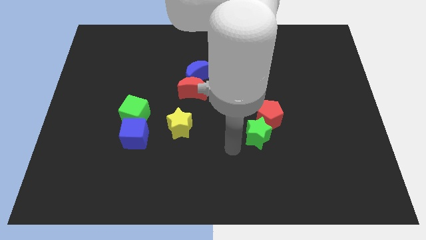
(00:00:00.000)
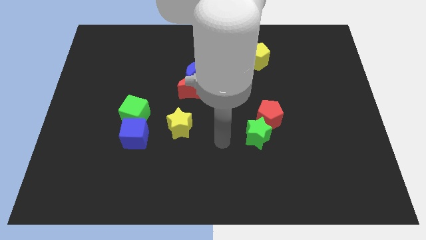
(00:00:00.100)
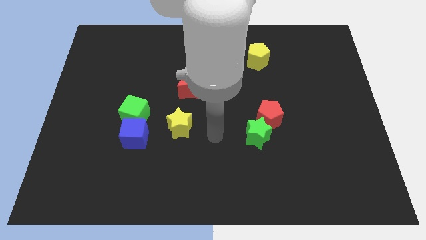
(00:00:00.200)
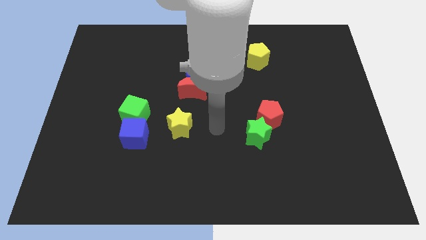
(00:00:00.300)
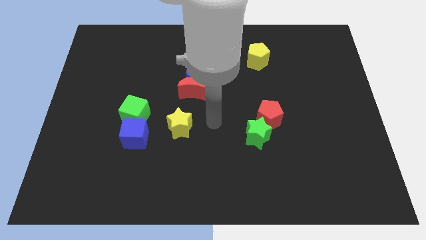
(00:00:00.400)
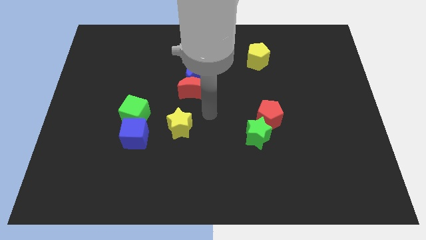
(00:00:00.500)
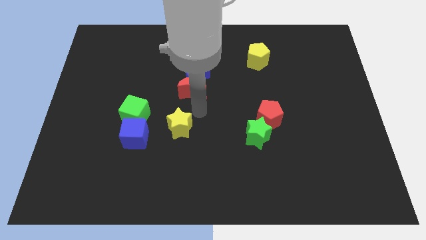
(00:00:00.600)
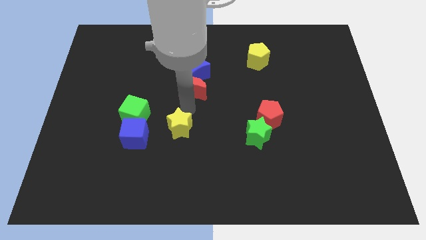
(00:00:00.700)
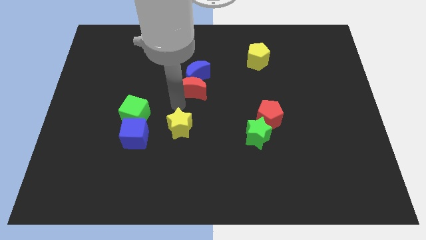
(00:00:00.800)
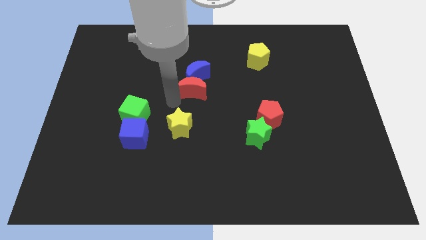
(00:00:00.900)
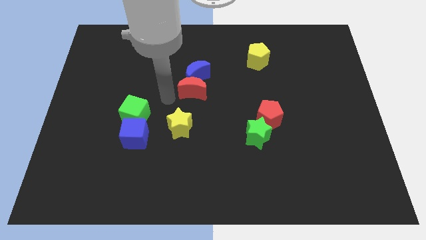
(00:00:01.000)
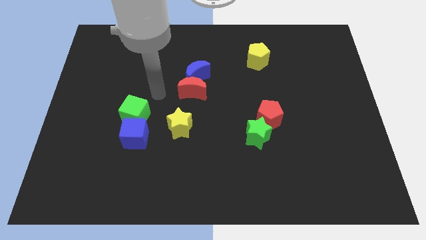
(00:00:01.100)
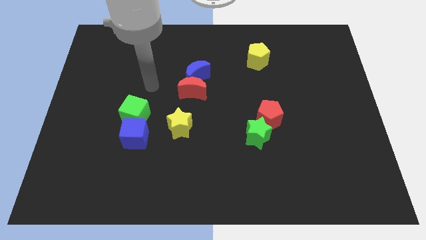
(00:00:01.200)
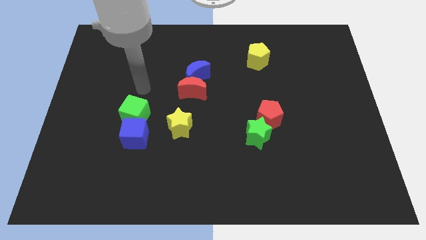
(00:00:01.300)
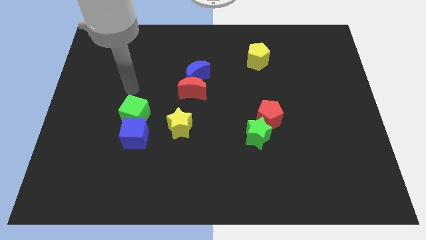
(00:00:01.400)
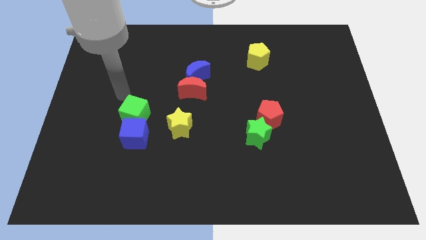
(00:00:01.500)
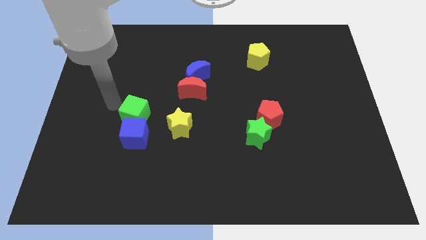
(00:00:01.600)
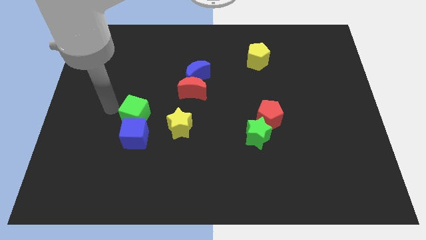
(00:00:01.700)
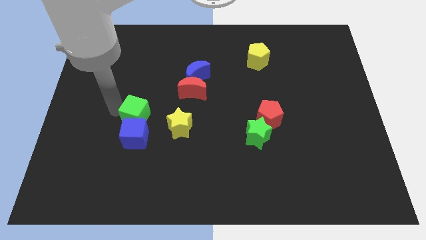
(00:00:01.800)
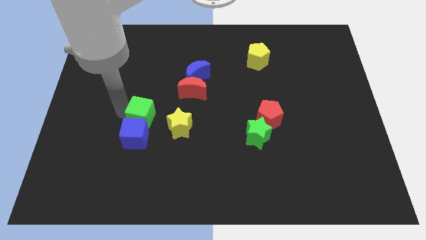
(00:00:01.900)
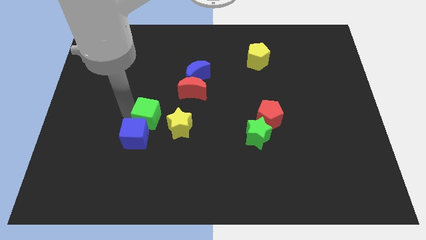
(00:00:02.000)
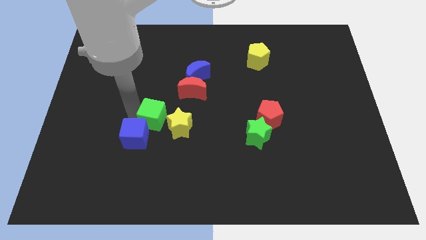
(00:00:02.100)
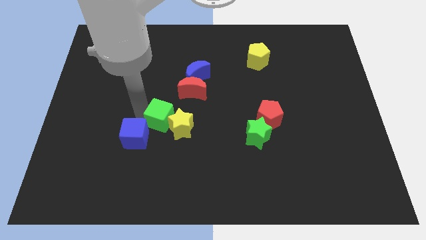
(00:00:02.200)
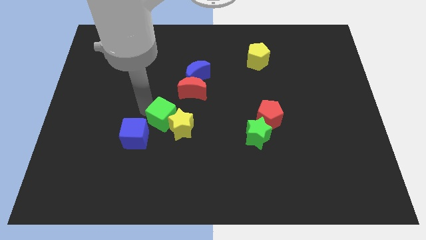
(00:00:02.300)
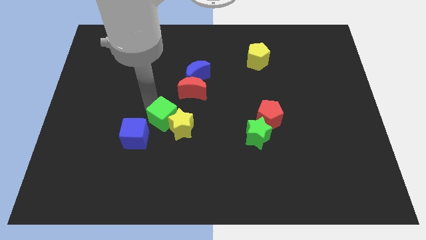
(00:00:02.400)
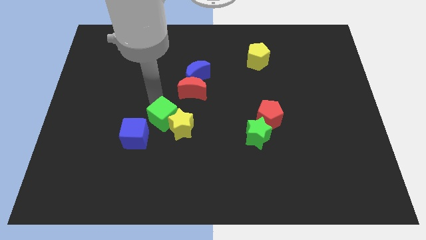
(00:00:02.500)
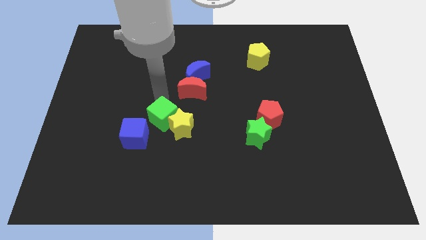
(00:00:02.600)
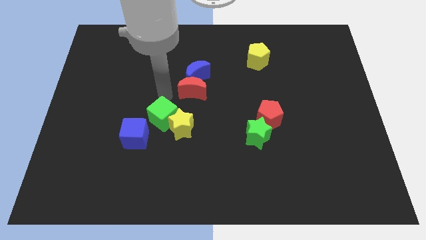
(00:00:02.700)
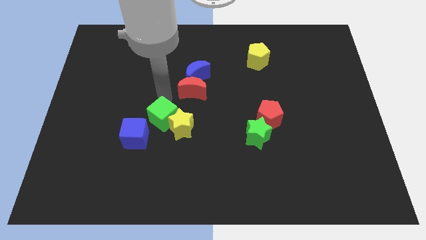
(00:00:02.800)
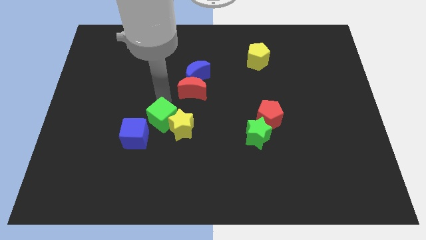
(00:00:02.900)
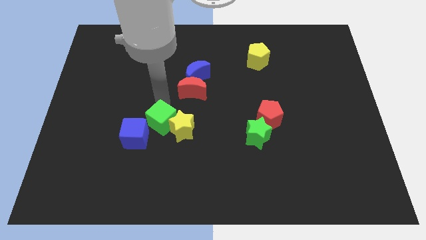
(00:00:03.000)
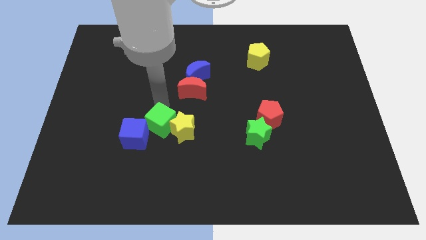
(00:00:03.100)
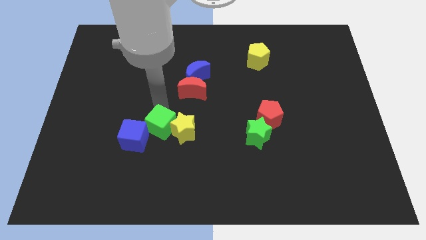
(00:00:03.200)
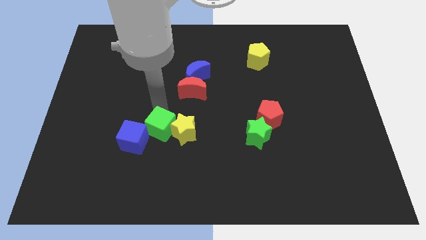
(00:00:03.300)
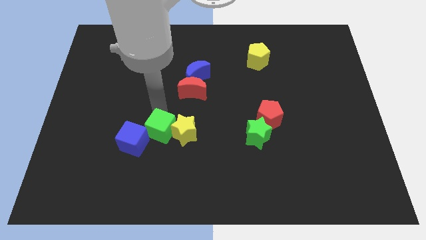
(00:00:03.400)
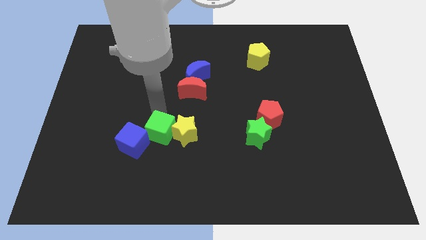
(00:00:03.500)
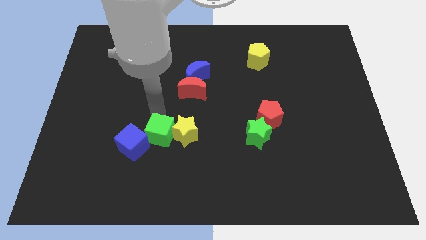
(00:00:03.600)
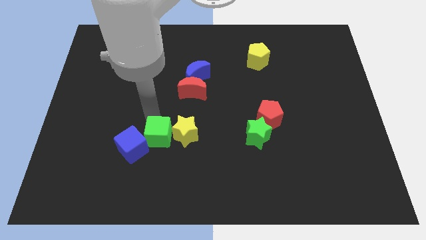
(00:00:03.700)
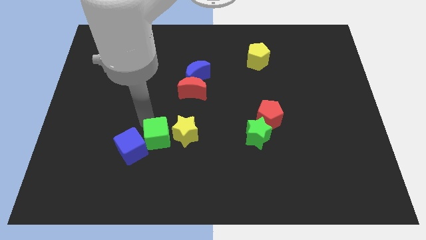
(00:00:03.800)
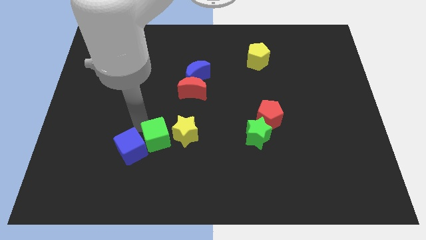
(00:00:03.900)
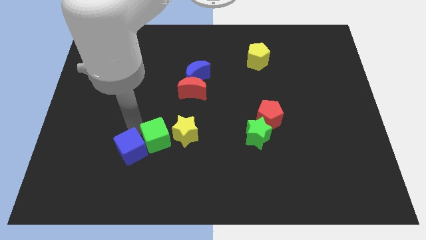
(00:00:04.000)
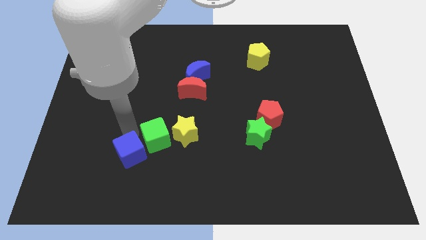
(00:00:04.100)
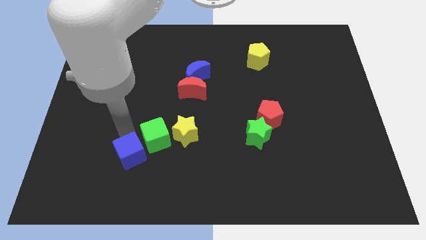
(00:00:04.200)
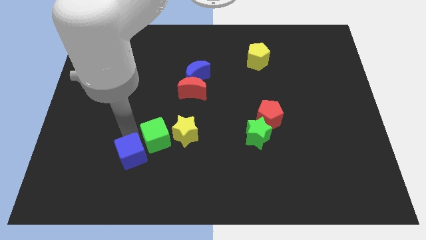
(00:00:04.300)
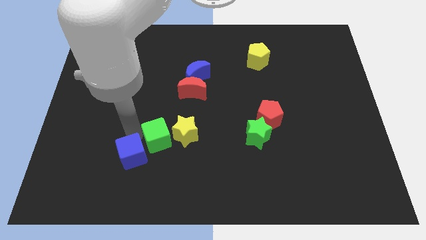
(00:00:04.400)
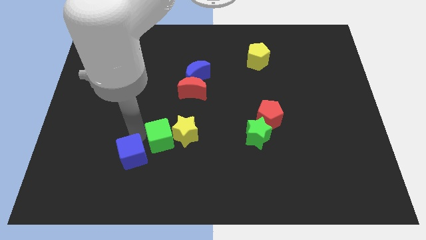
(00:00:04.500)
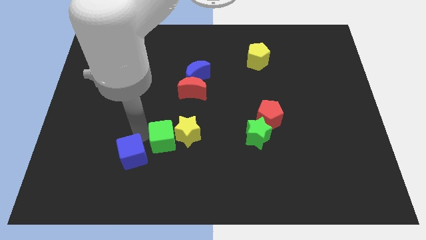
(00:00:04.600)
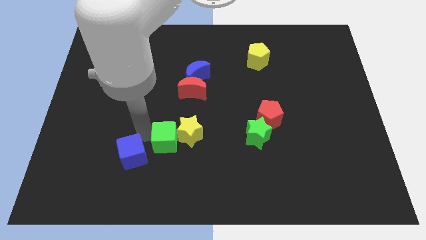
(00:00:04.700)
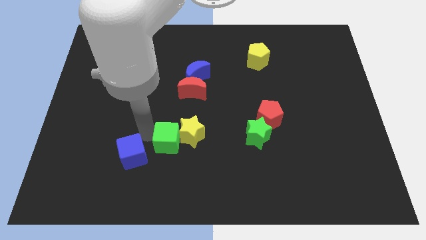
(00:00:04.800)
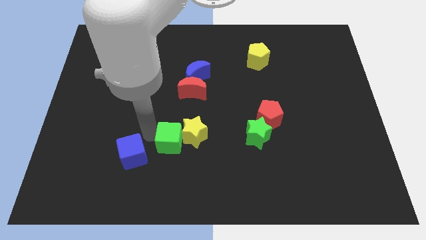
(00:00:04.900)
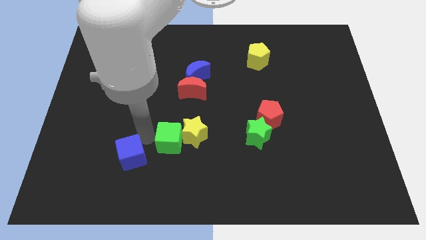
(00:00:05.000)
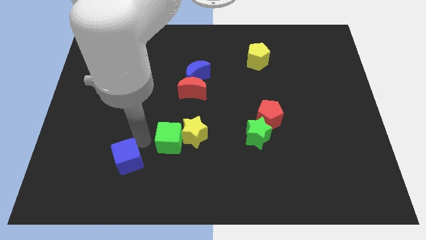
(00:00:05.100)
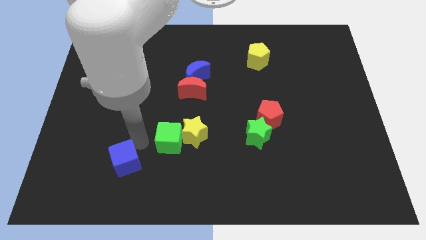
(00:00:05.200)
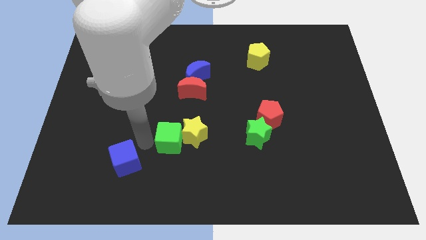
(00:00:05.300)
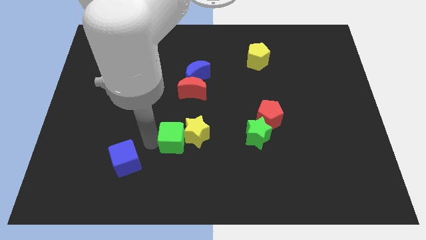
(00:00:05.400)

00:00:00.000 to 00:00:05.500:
push the green cube right slightly

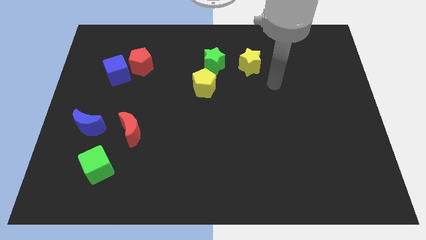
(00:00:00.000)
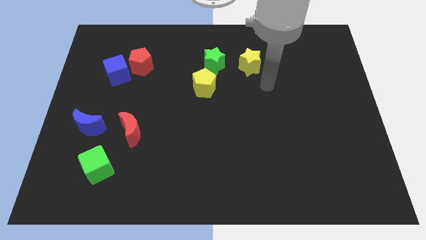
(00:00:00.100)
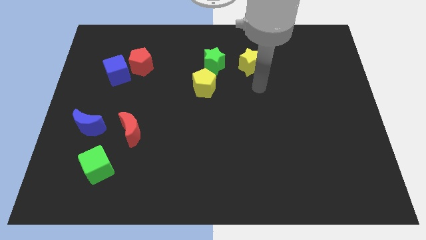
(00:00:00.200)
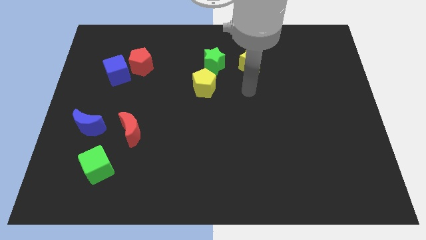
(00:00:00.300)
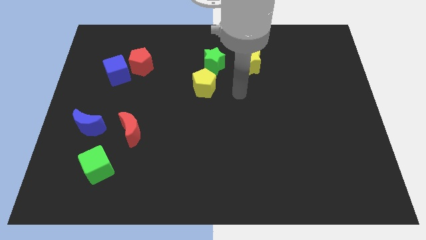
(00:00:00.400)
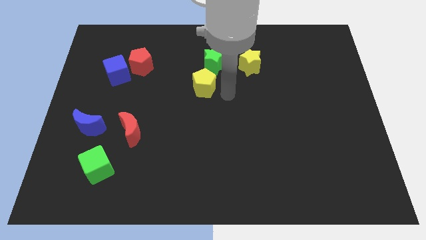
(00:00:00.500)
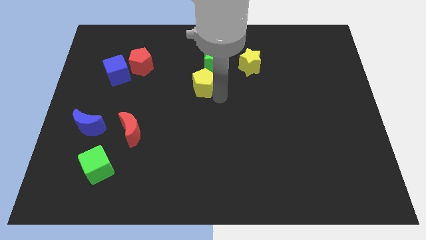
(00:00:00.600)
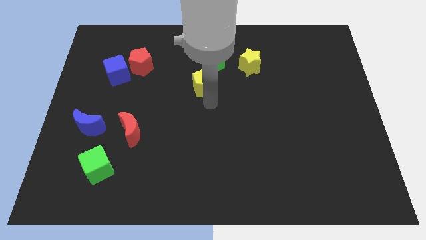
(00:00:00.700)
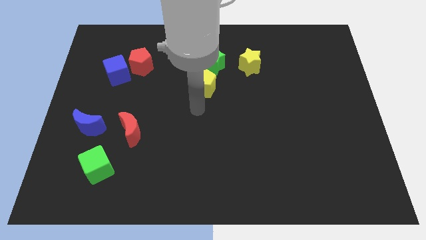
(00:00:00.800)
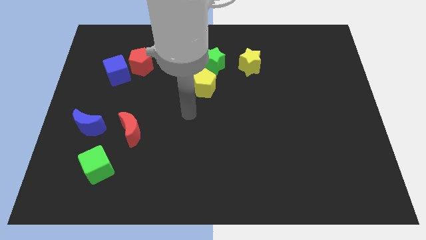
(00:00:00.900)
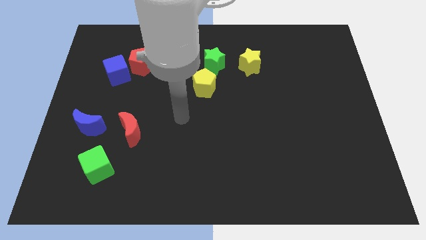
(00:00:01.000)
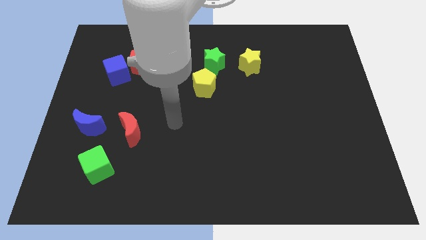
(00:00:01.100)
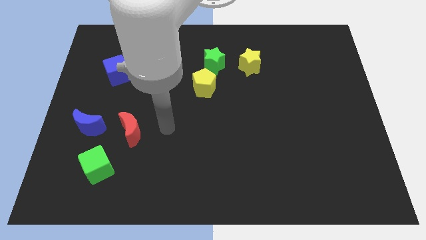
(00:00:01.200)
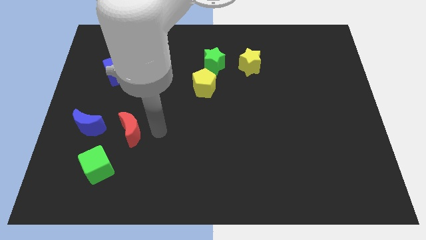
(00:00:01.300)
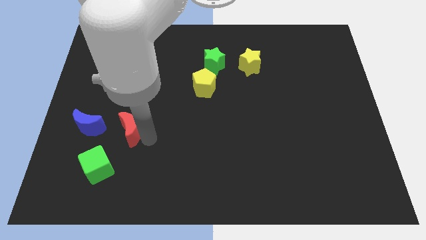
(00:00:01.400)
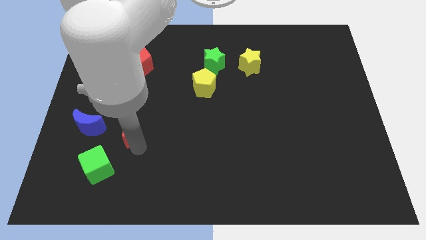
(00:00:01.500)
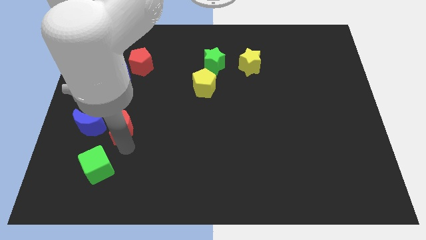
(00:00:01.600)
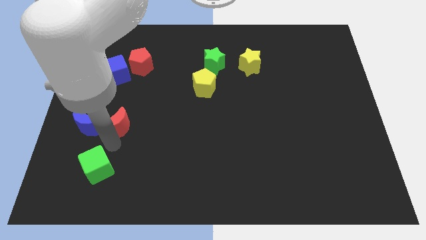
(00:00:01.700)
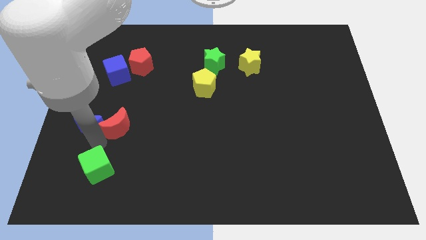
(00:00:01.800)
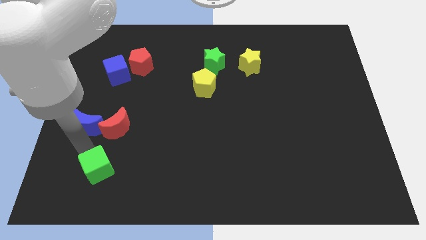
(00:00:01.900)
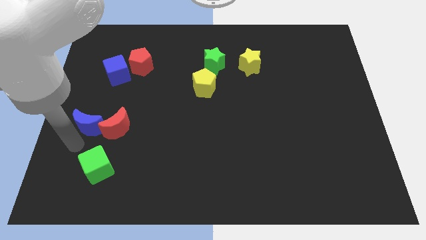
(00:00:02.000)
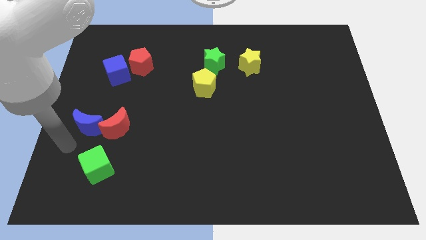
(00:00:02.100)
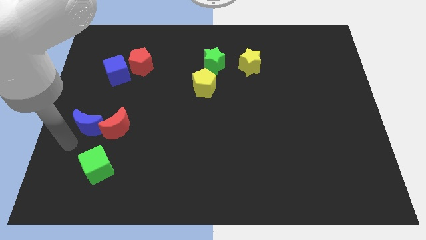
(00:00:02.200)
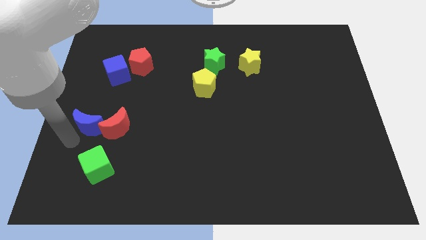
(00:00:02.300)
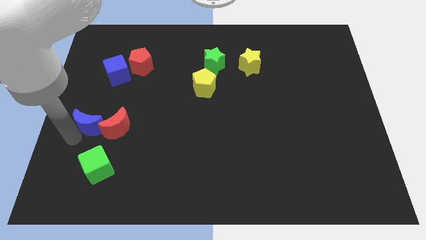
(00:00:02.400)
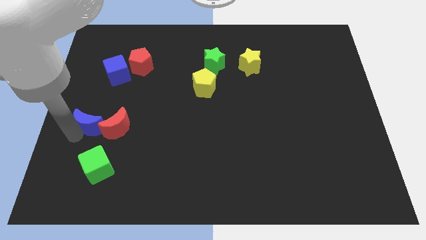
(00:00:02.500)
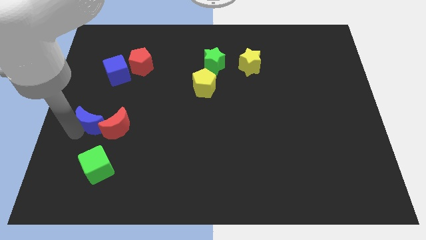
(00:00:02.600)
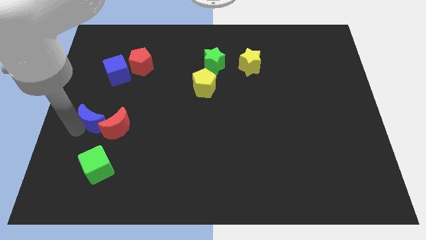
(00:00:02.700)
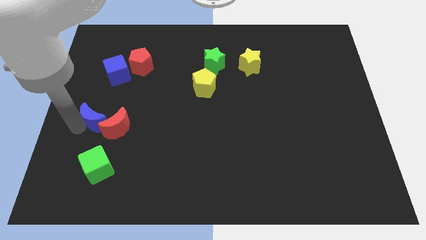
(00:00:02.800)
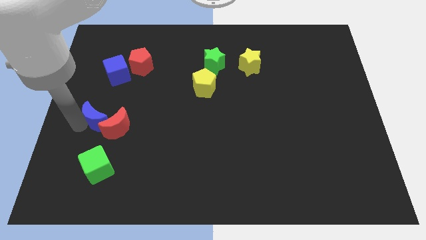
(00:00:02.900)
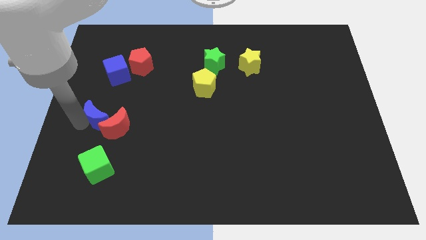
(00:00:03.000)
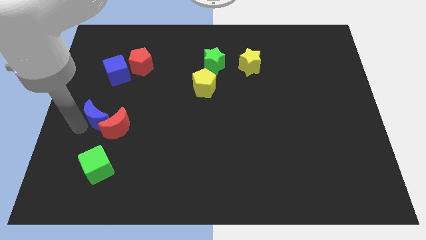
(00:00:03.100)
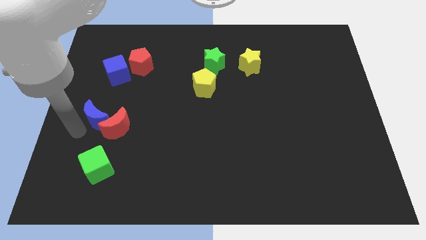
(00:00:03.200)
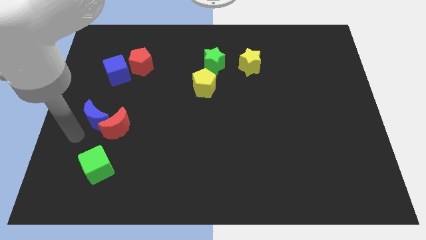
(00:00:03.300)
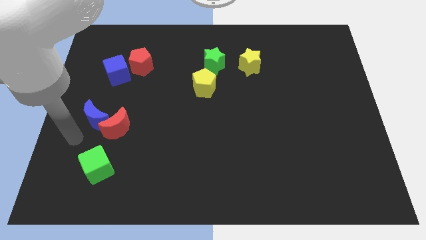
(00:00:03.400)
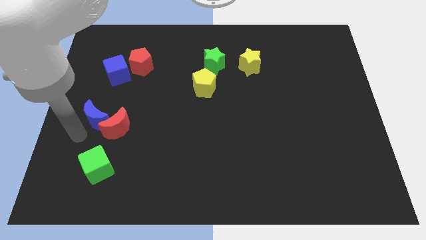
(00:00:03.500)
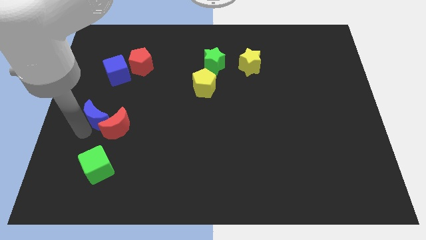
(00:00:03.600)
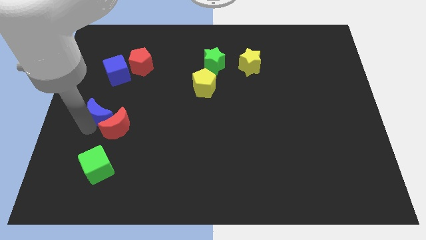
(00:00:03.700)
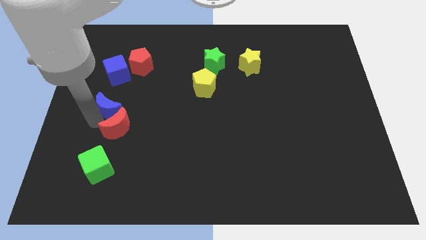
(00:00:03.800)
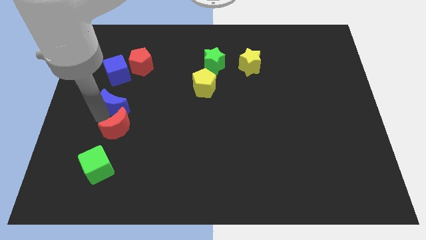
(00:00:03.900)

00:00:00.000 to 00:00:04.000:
move the blue moon up and right somewhat
